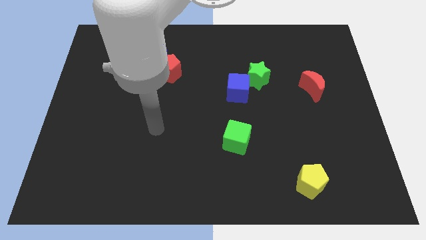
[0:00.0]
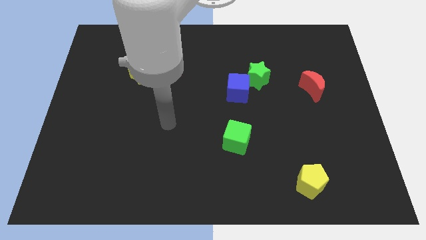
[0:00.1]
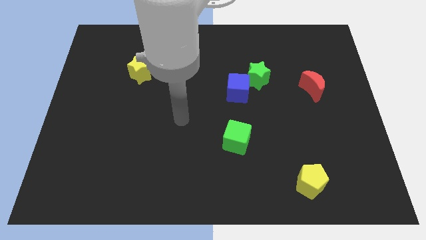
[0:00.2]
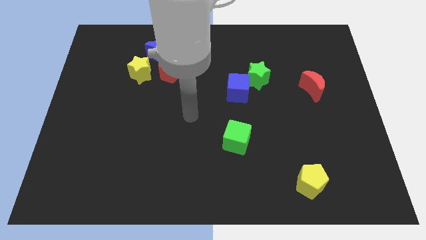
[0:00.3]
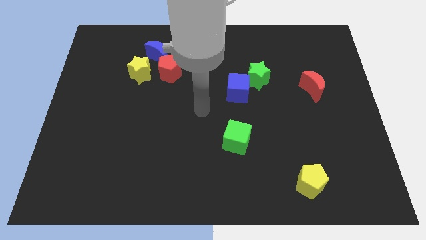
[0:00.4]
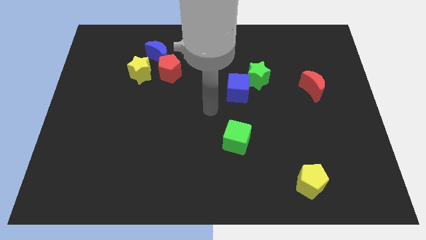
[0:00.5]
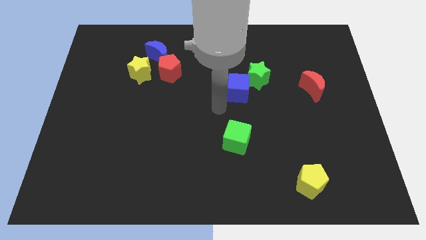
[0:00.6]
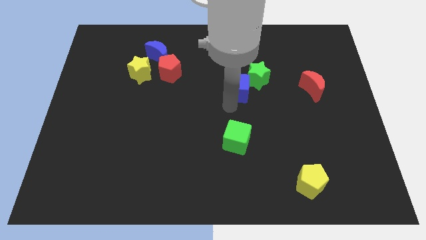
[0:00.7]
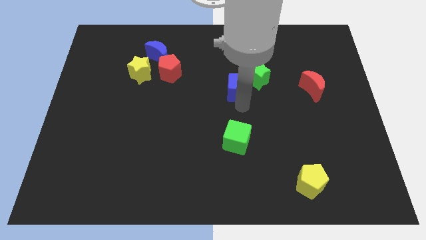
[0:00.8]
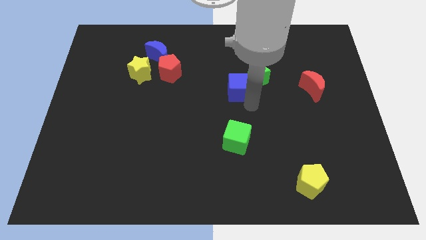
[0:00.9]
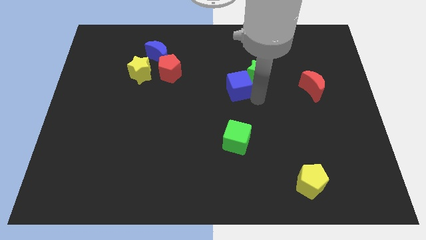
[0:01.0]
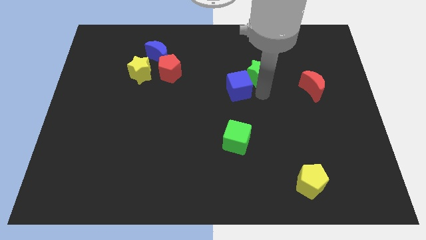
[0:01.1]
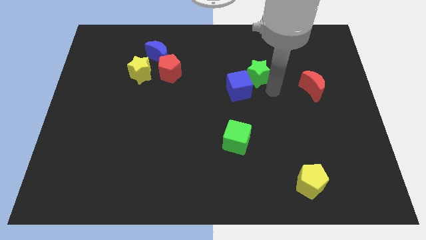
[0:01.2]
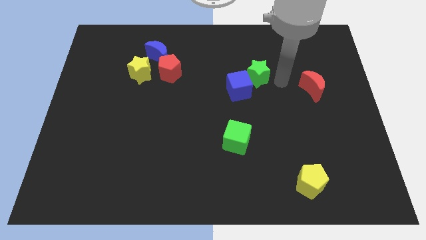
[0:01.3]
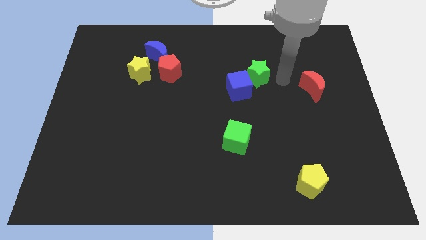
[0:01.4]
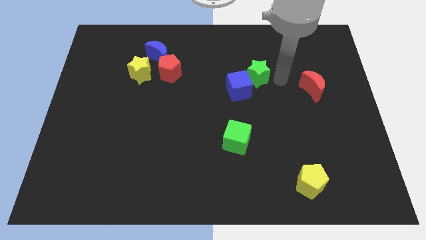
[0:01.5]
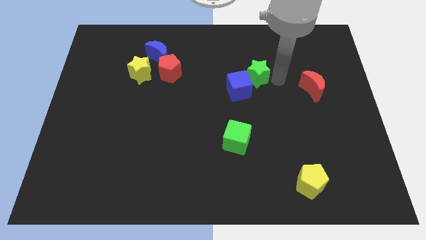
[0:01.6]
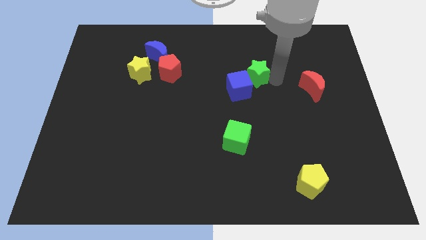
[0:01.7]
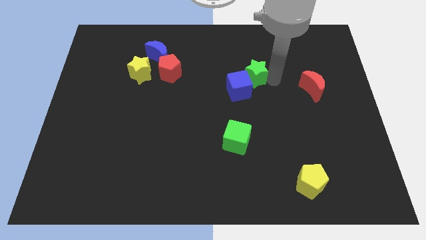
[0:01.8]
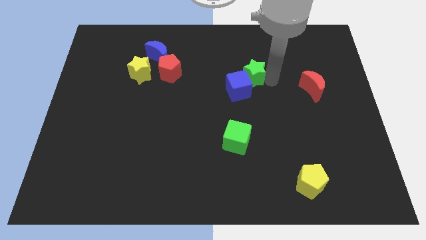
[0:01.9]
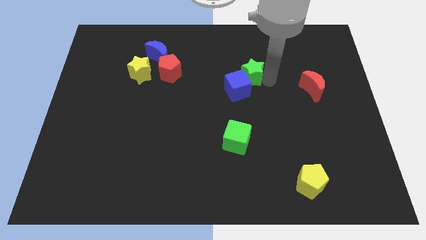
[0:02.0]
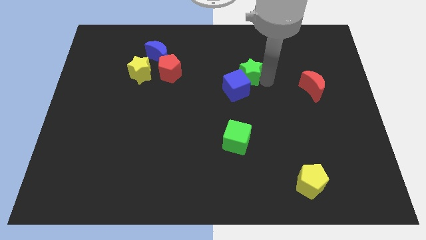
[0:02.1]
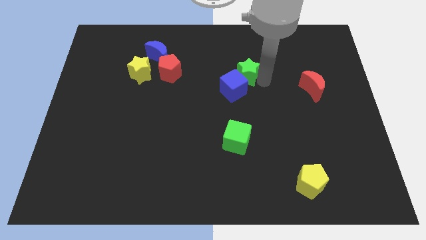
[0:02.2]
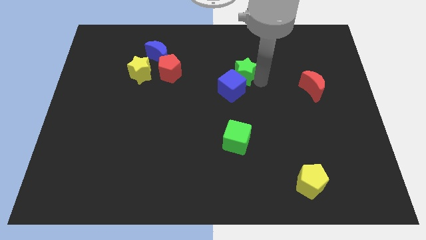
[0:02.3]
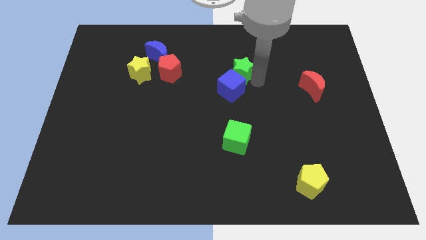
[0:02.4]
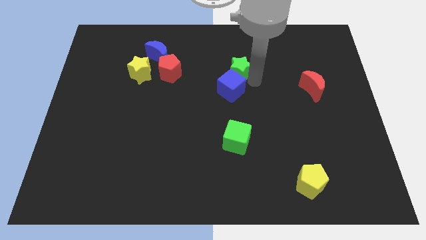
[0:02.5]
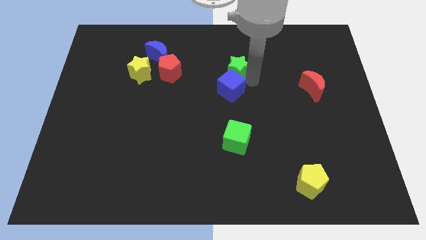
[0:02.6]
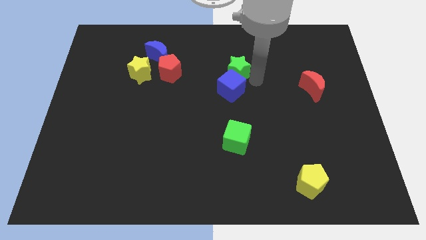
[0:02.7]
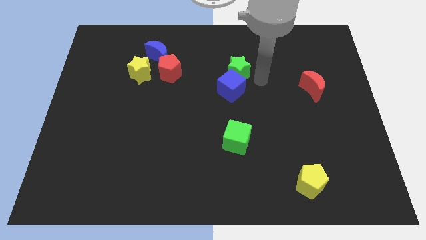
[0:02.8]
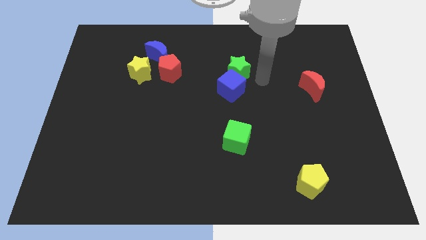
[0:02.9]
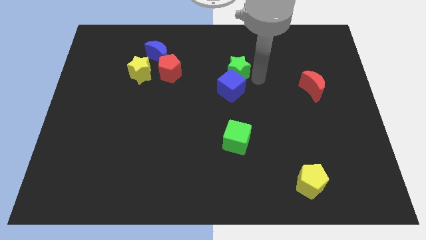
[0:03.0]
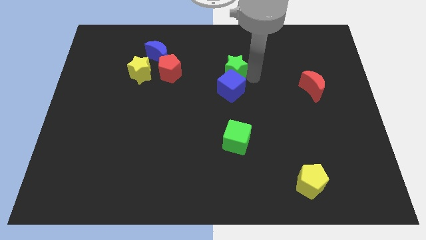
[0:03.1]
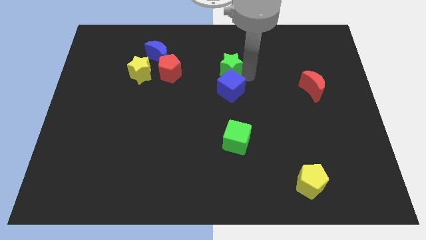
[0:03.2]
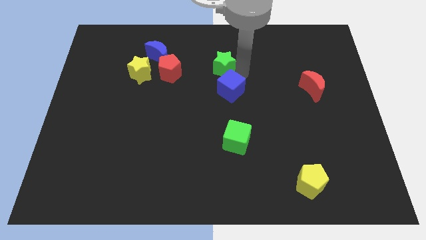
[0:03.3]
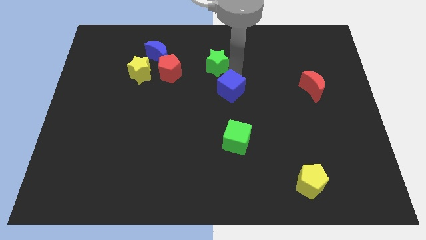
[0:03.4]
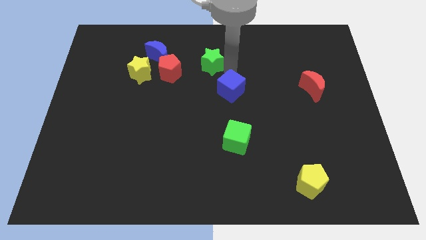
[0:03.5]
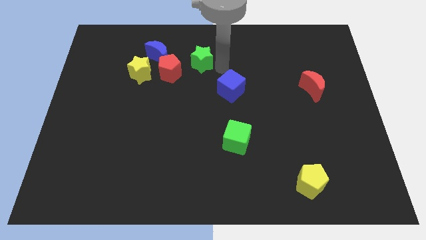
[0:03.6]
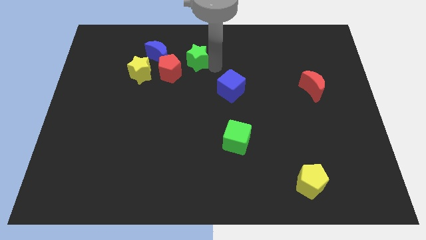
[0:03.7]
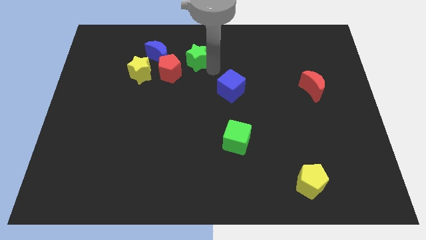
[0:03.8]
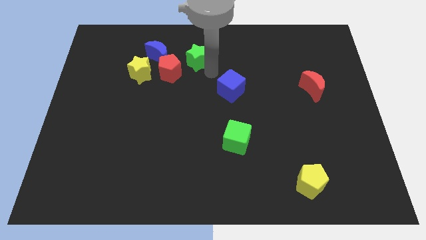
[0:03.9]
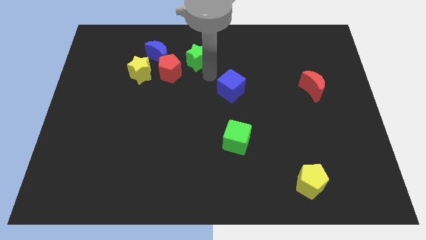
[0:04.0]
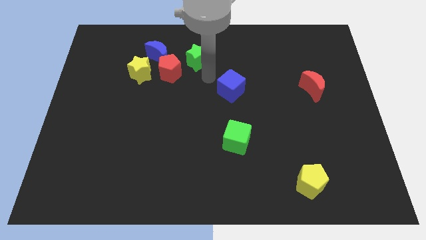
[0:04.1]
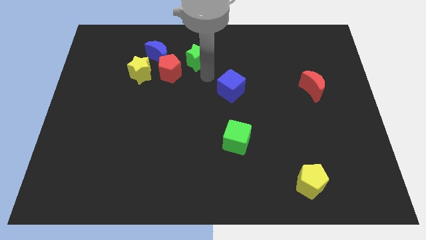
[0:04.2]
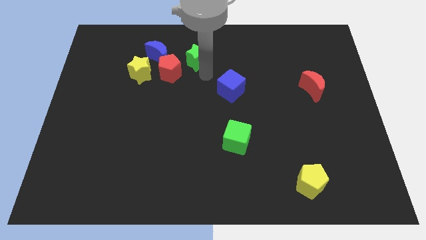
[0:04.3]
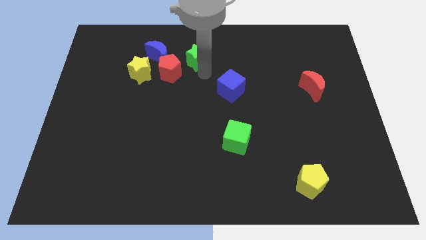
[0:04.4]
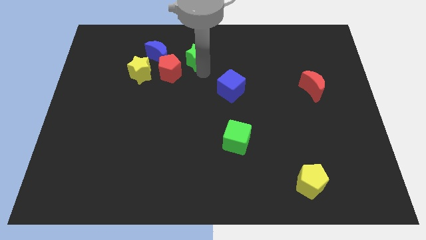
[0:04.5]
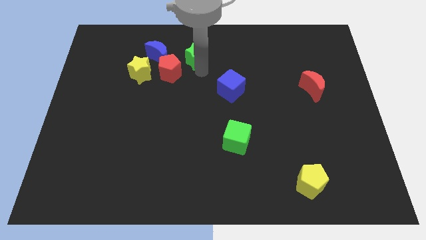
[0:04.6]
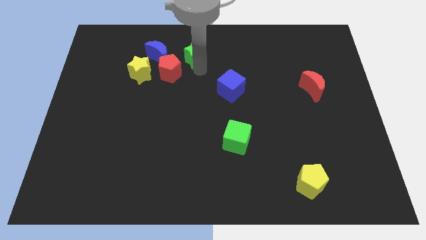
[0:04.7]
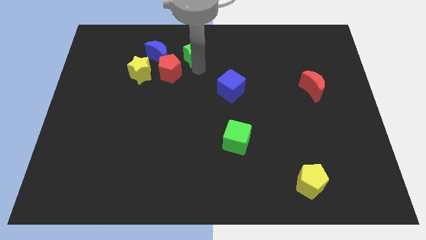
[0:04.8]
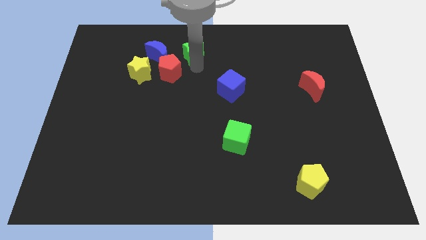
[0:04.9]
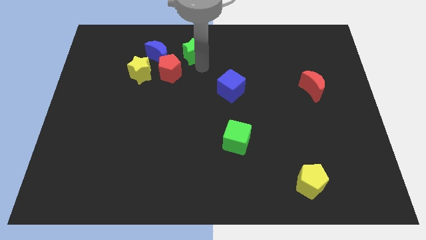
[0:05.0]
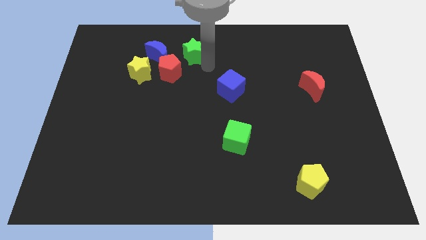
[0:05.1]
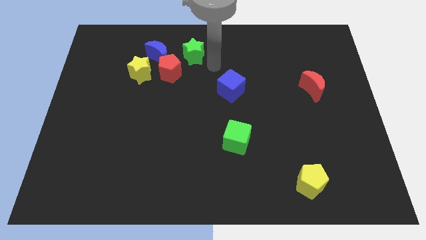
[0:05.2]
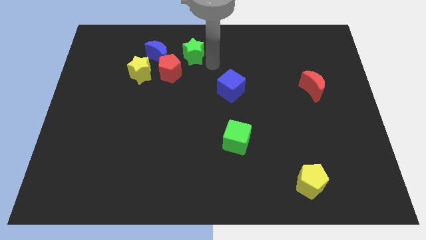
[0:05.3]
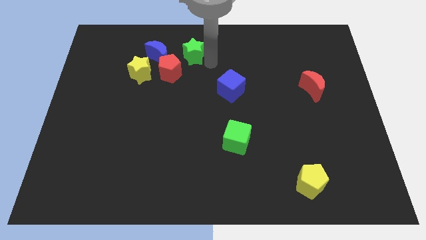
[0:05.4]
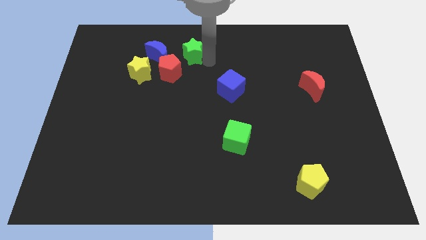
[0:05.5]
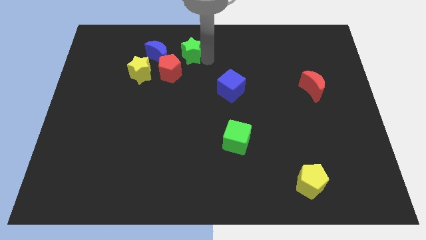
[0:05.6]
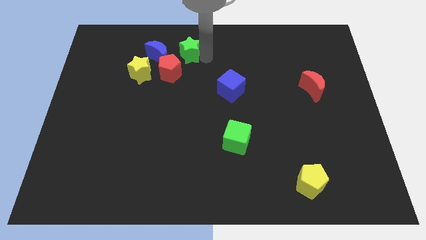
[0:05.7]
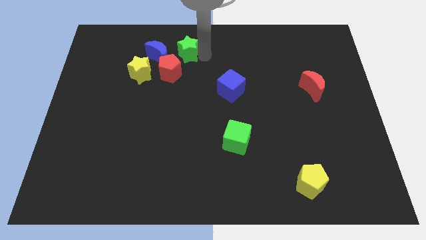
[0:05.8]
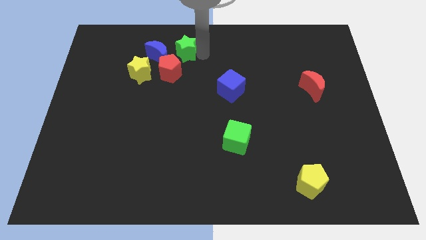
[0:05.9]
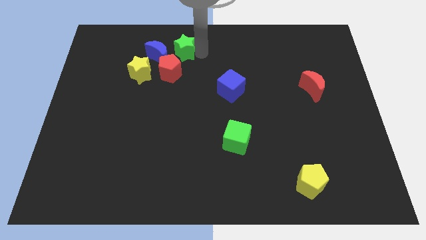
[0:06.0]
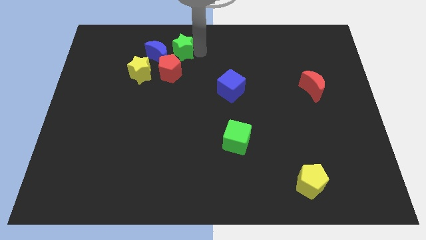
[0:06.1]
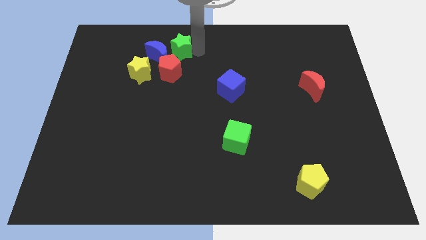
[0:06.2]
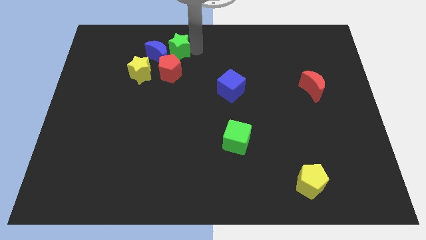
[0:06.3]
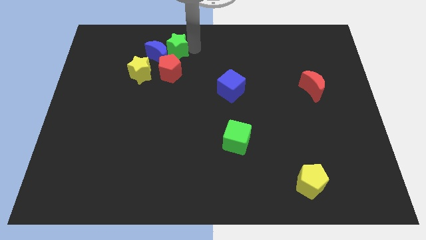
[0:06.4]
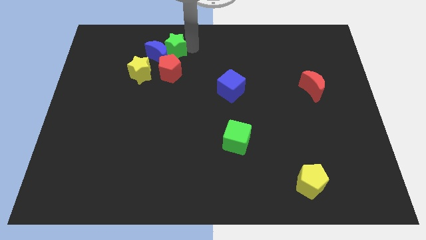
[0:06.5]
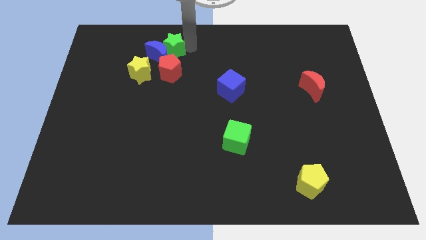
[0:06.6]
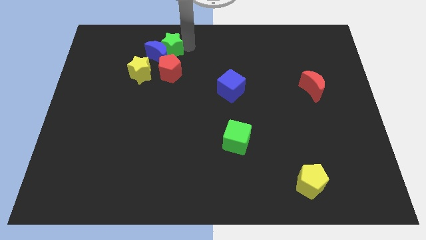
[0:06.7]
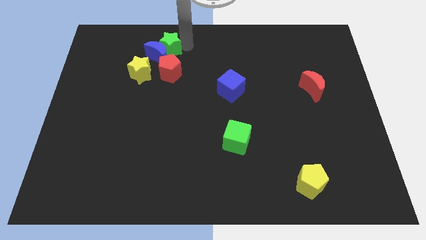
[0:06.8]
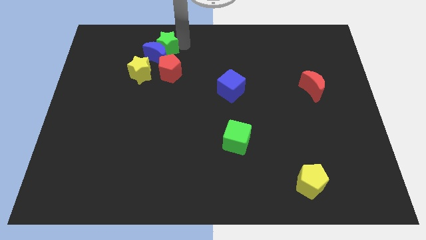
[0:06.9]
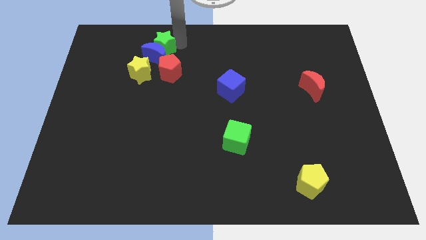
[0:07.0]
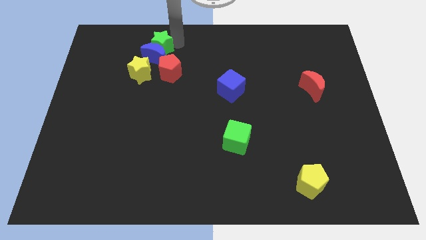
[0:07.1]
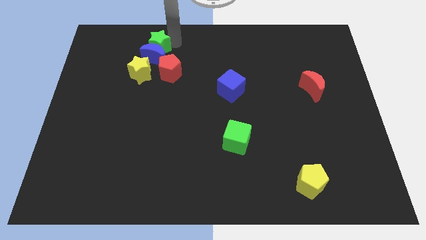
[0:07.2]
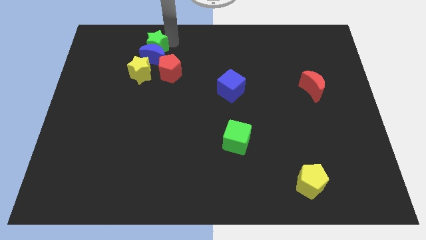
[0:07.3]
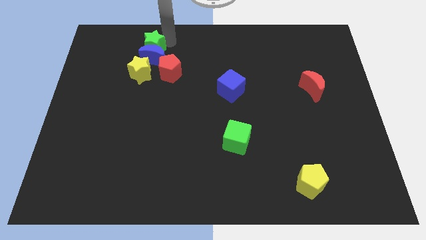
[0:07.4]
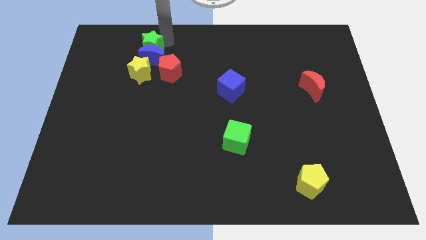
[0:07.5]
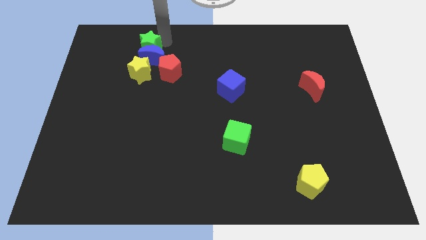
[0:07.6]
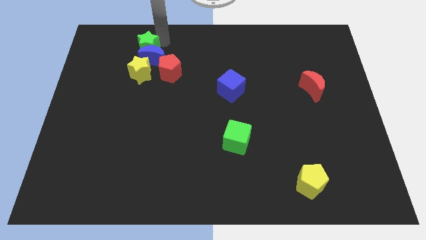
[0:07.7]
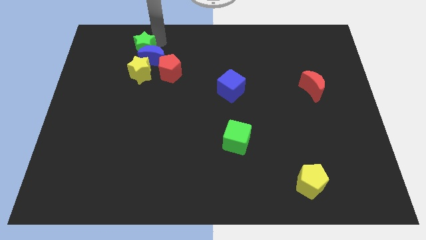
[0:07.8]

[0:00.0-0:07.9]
slide the green star just left of the blue moon

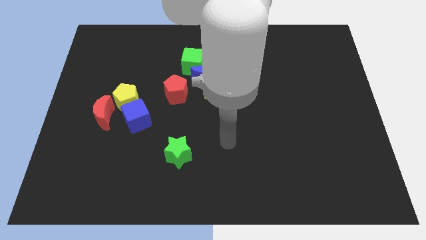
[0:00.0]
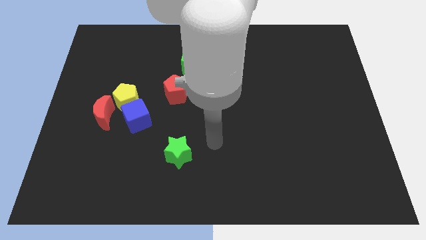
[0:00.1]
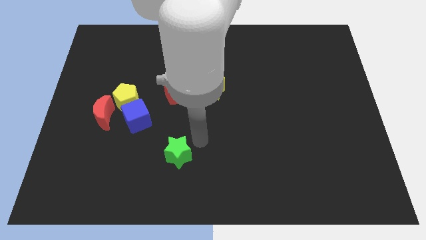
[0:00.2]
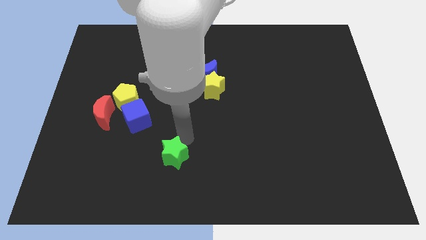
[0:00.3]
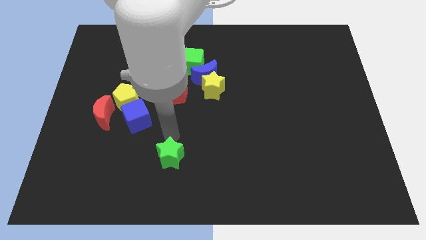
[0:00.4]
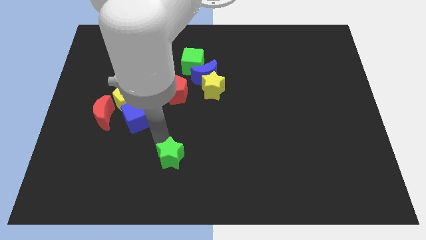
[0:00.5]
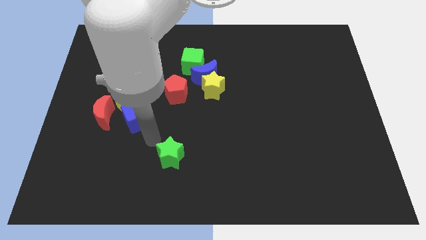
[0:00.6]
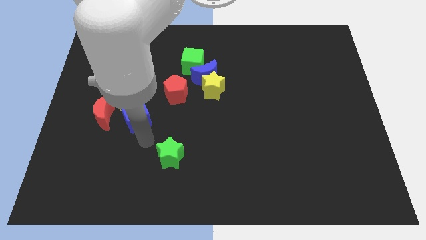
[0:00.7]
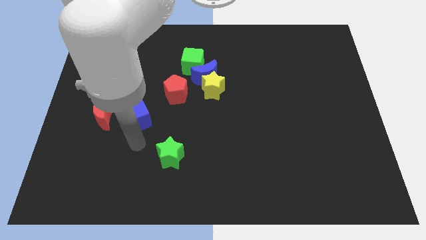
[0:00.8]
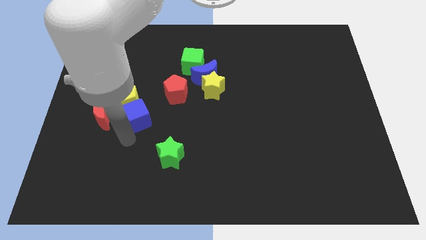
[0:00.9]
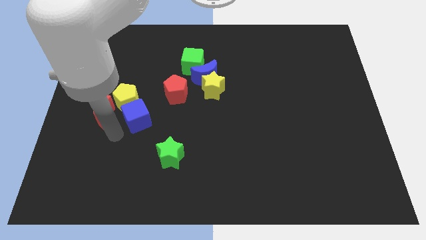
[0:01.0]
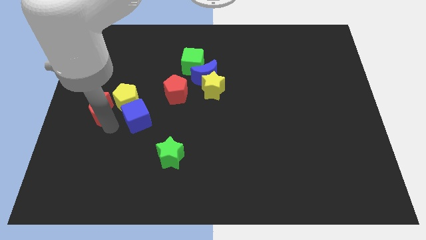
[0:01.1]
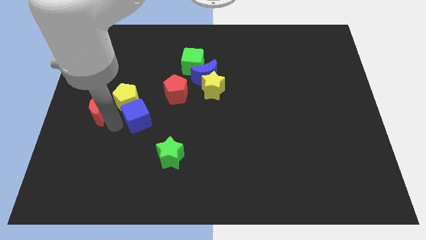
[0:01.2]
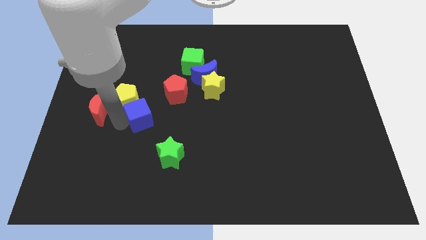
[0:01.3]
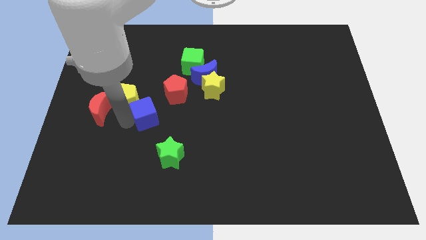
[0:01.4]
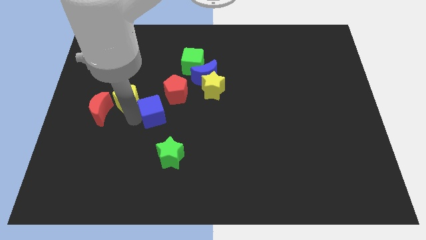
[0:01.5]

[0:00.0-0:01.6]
put the blue cube above the green star
